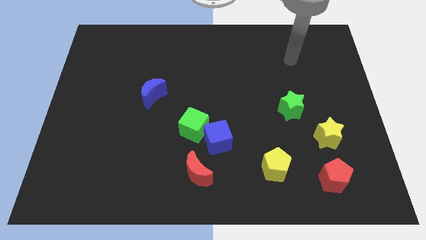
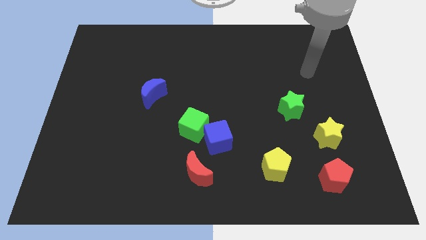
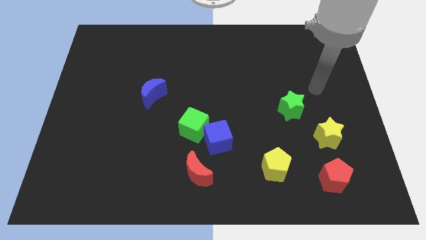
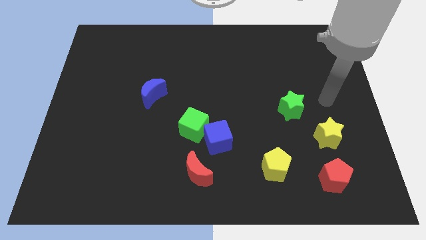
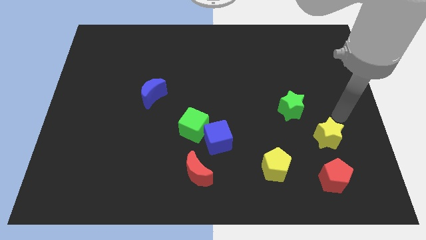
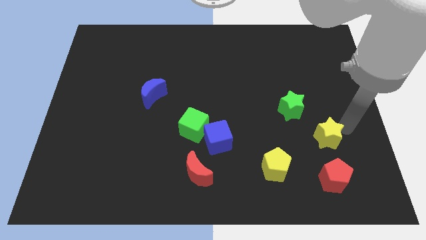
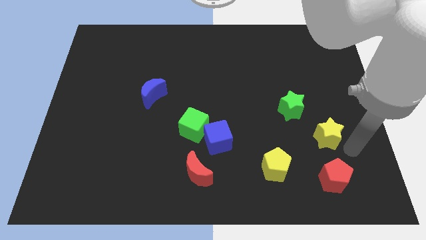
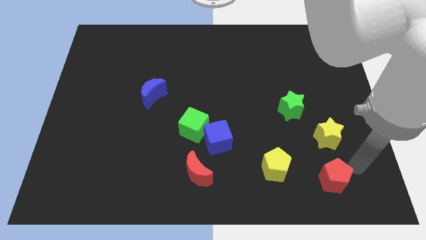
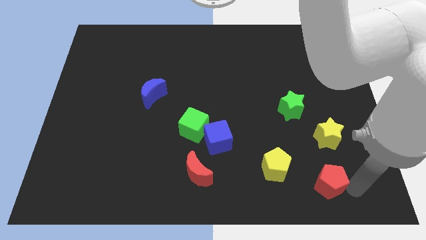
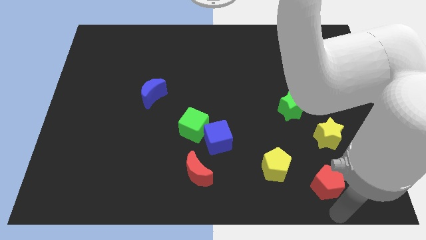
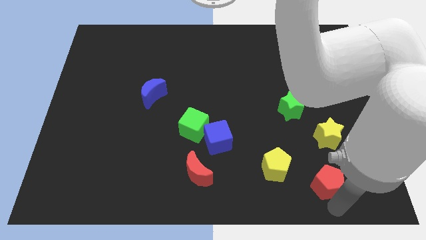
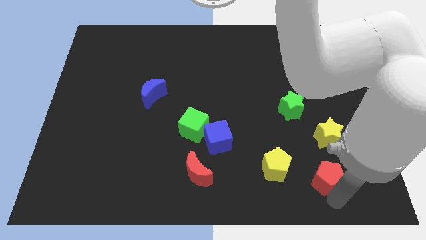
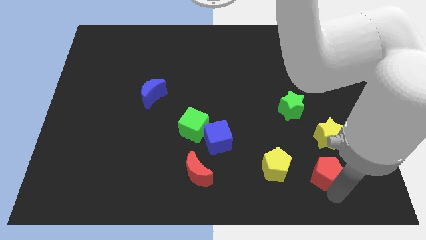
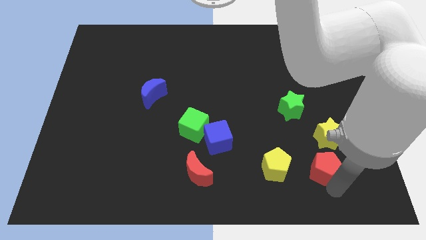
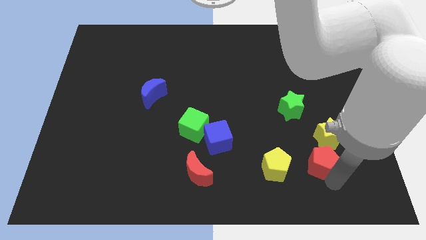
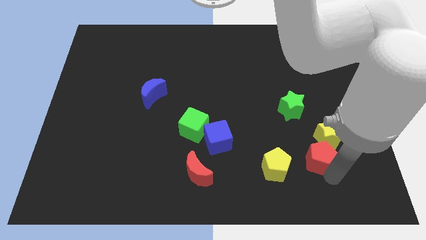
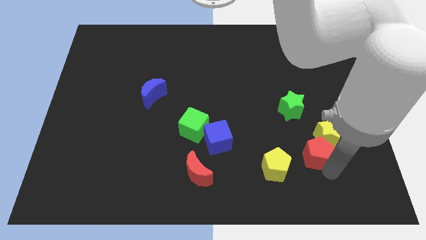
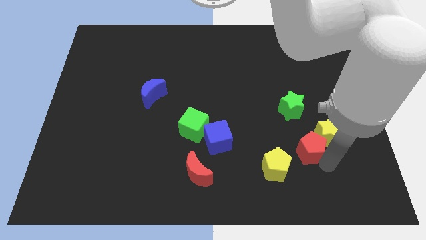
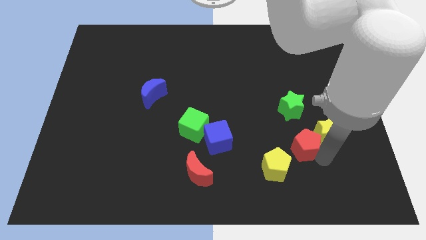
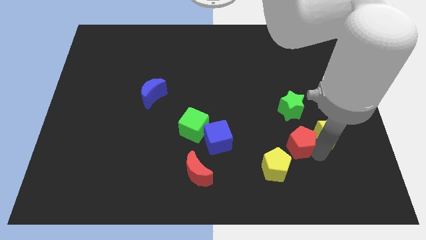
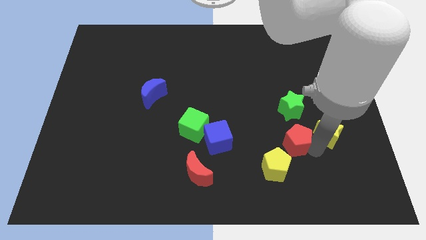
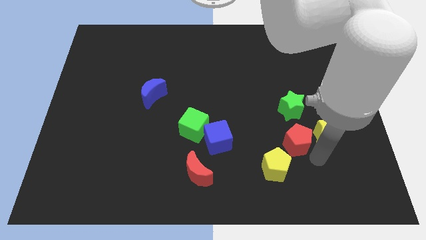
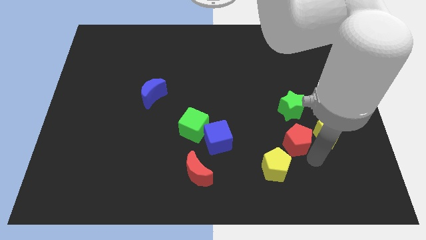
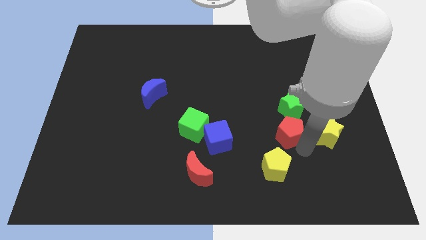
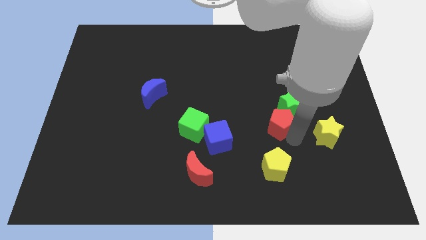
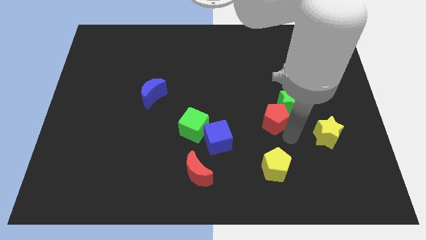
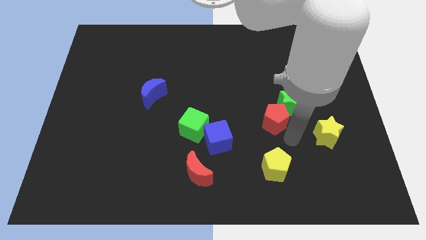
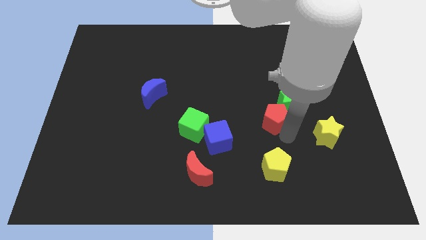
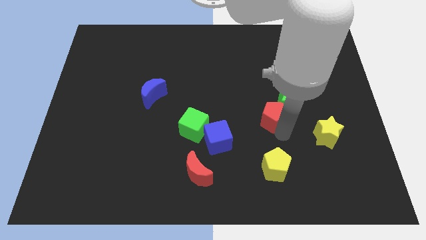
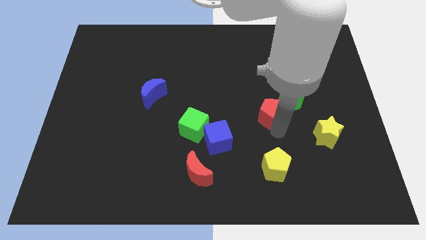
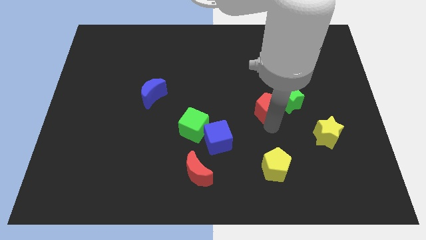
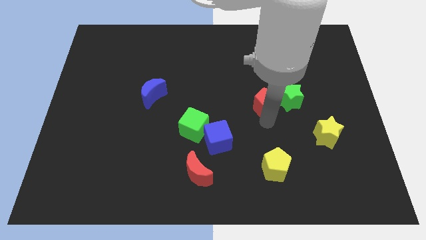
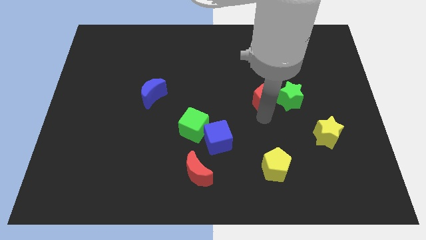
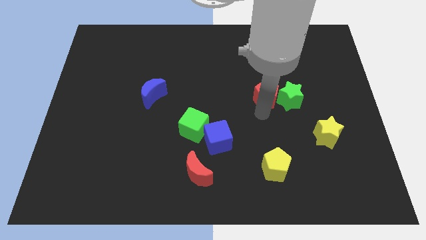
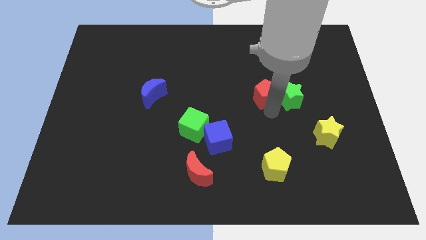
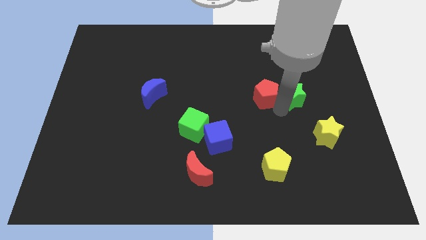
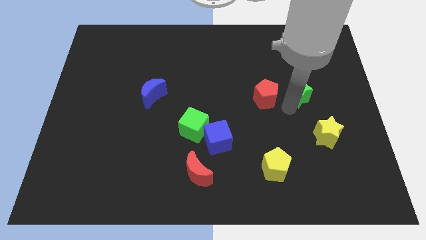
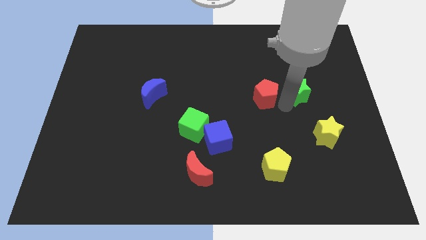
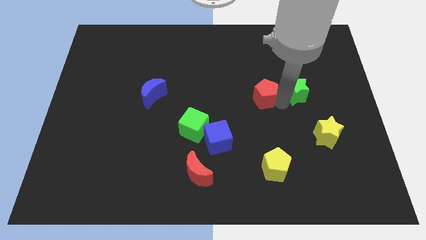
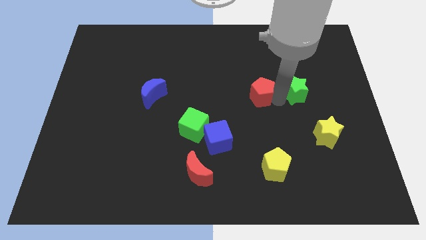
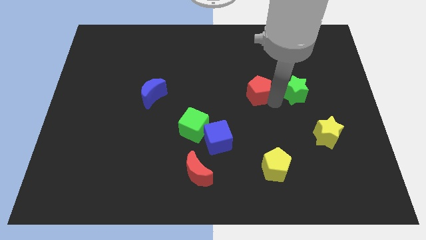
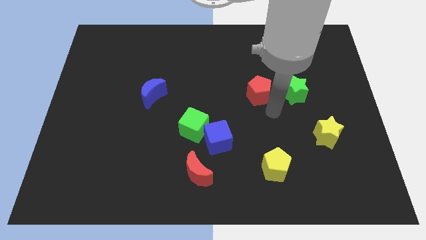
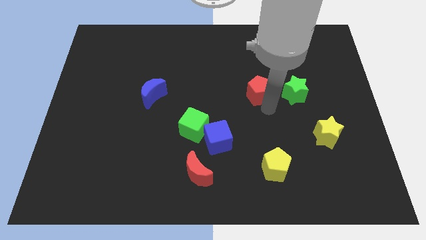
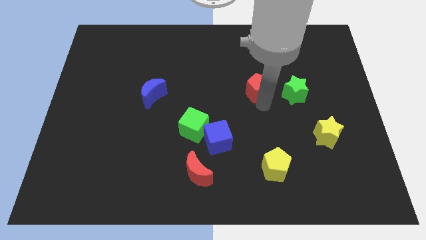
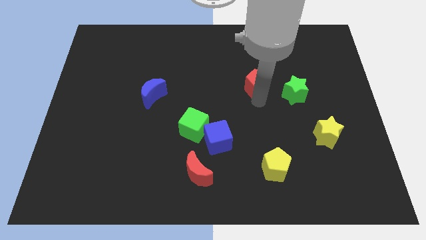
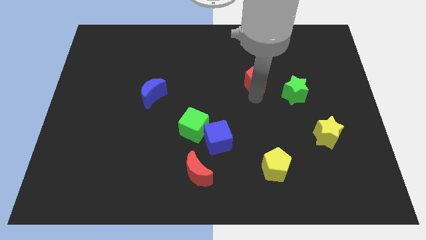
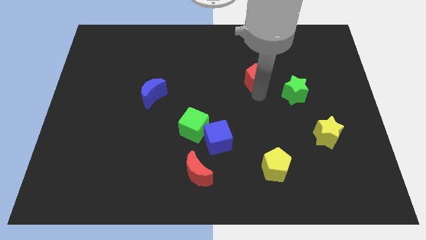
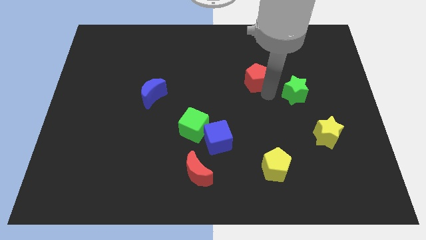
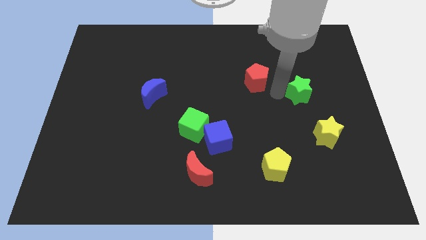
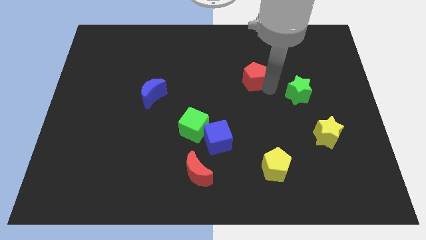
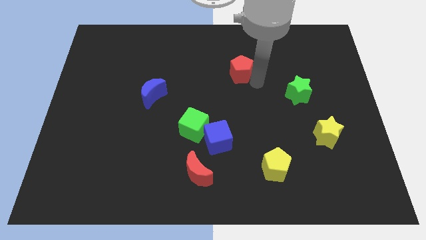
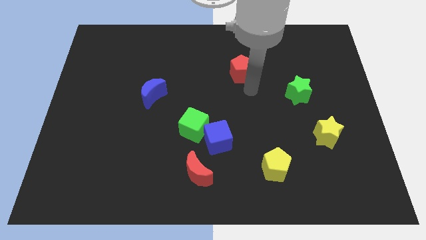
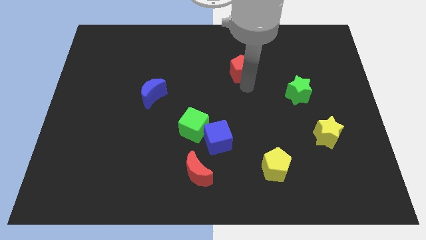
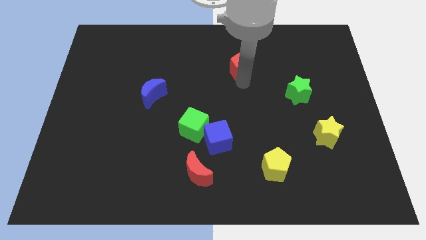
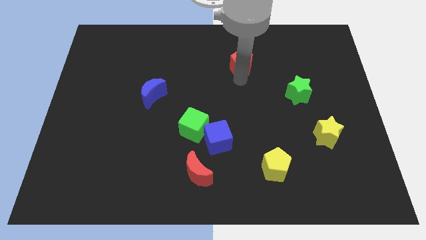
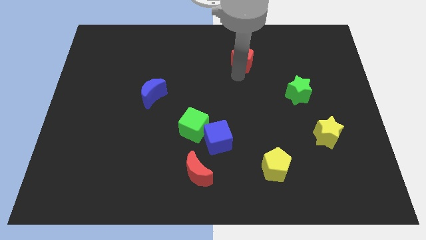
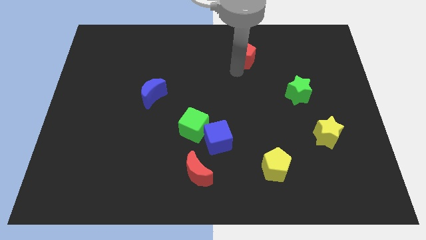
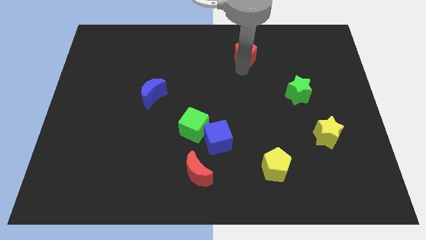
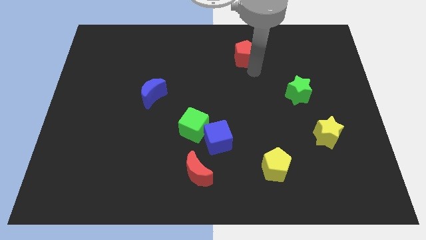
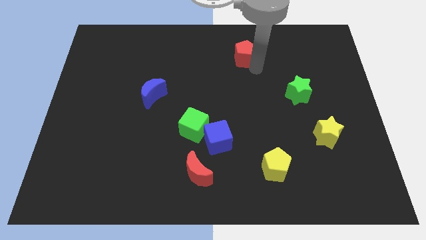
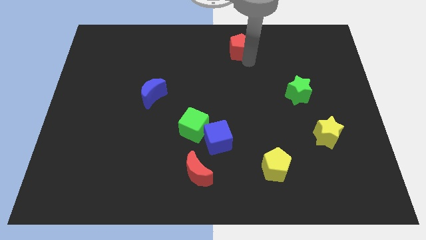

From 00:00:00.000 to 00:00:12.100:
move the red pentagon to the towards your base

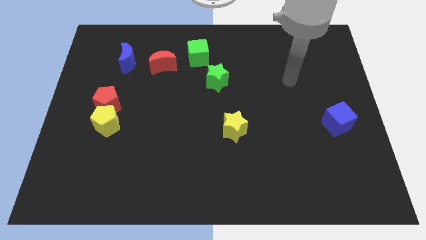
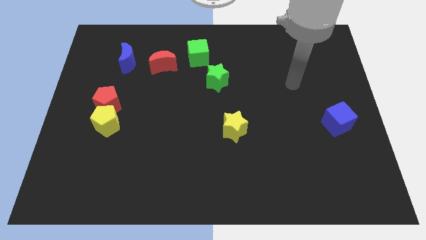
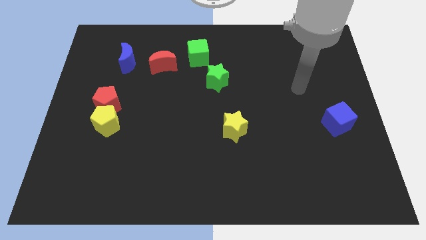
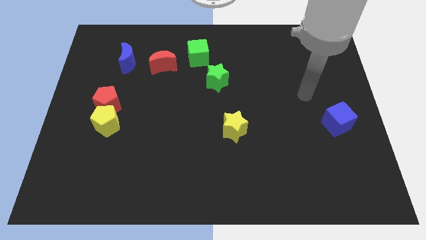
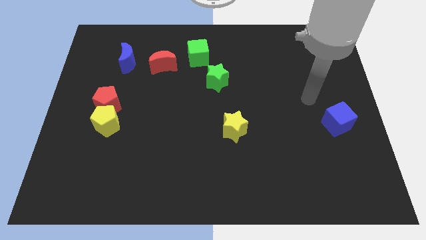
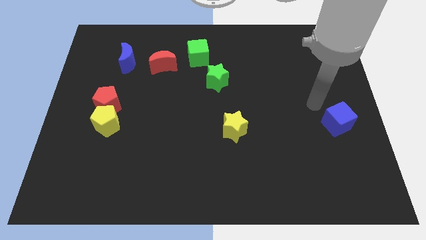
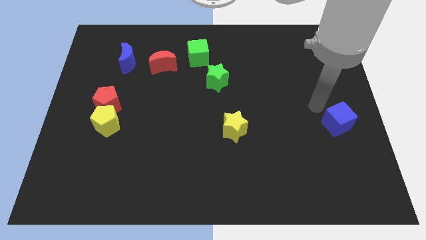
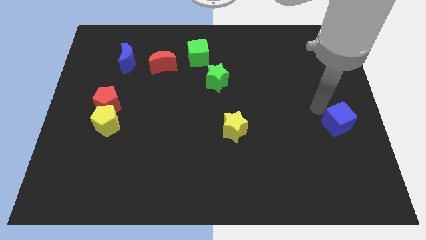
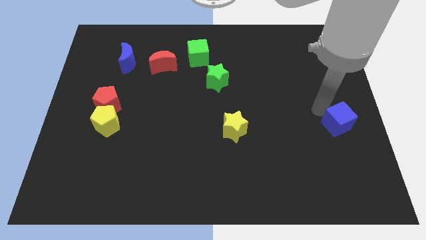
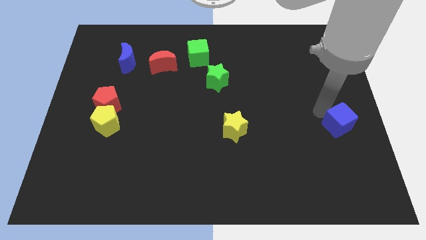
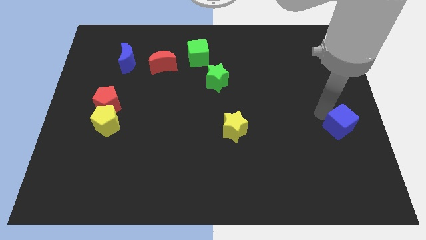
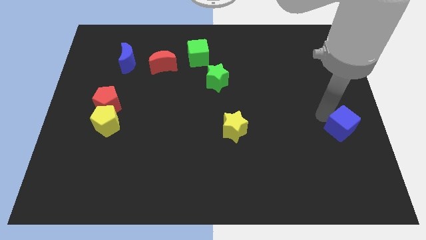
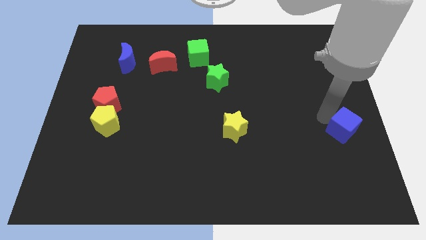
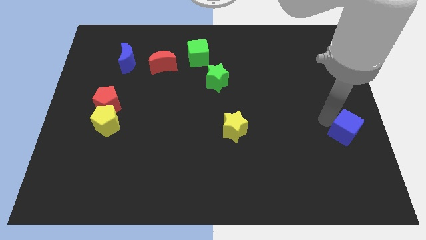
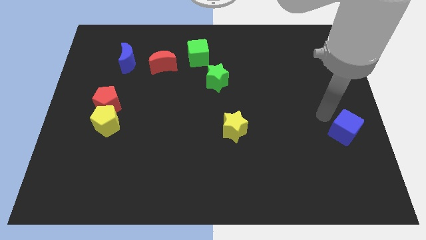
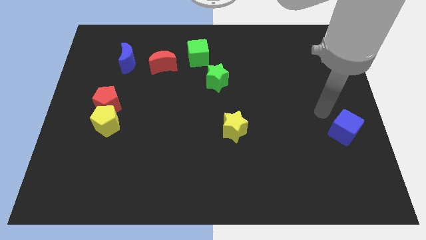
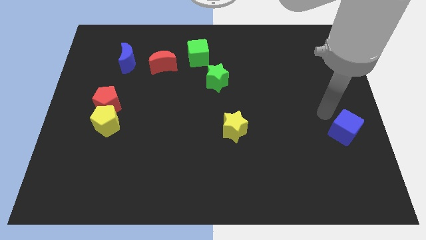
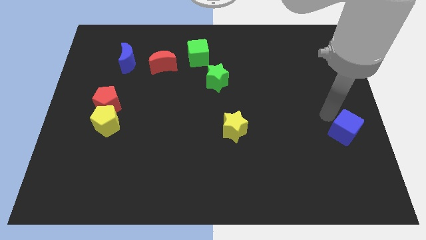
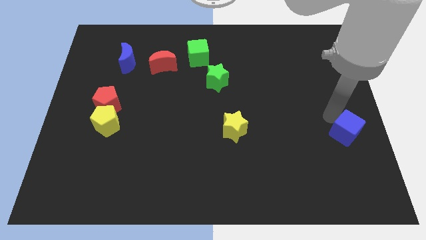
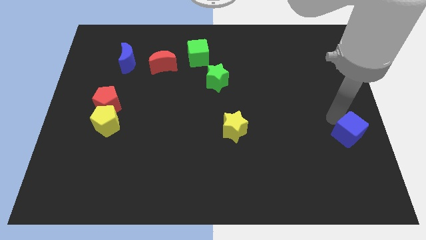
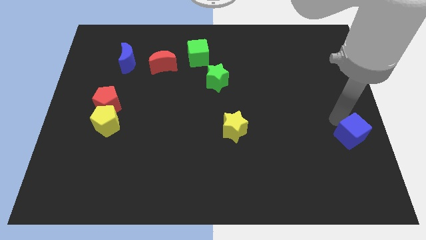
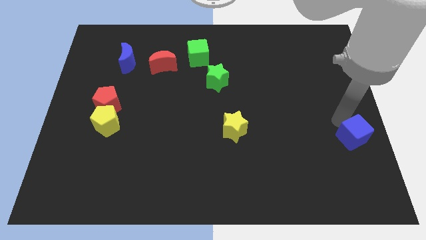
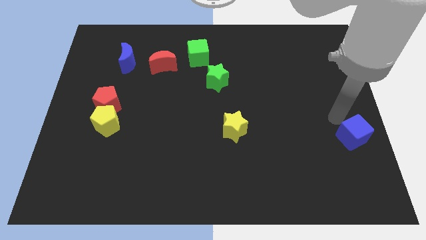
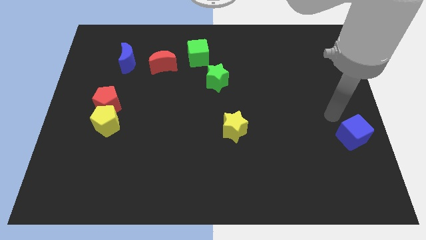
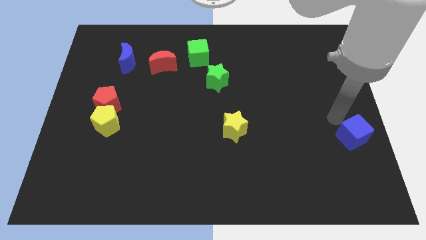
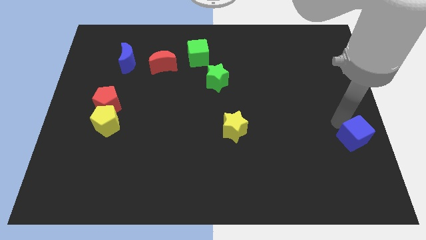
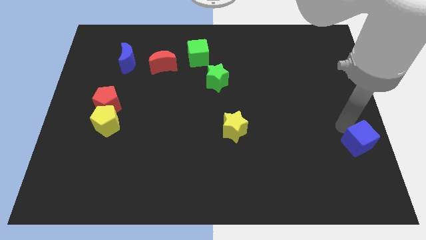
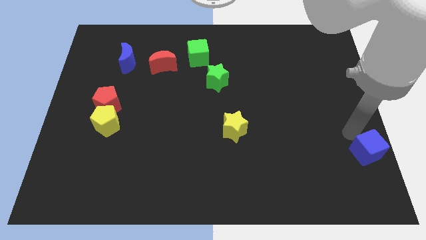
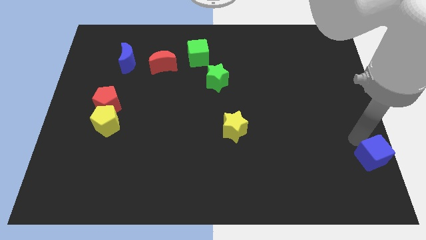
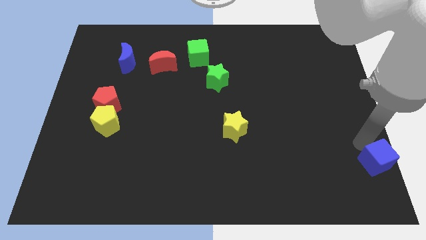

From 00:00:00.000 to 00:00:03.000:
put the blue cube to the lower right corner
